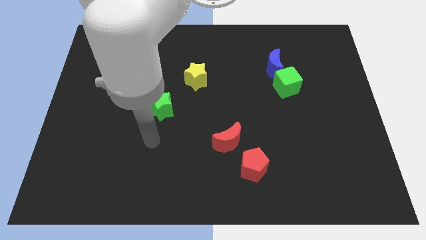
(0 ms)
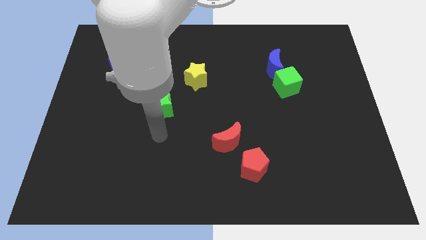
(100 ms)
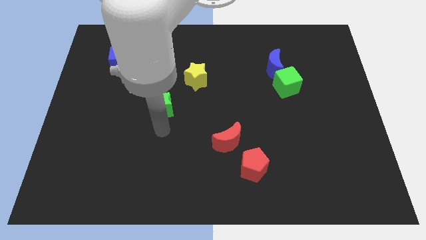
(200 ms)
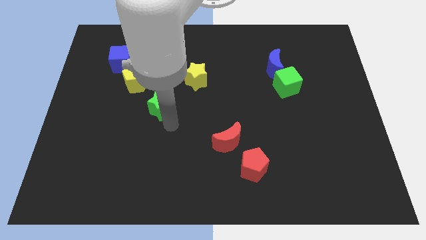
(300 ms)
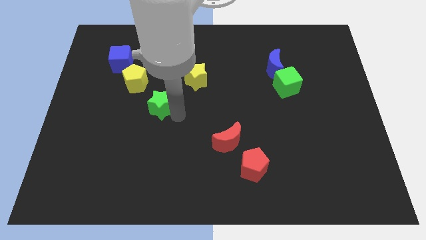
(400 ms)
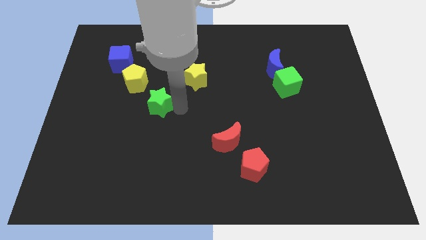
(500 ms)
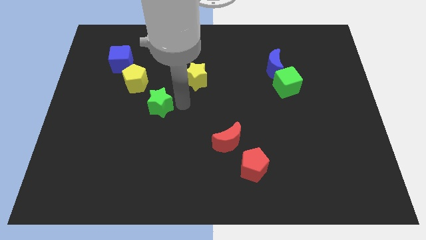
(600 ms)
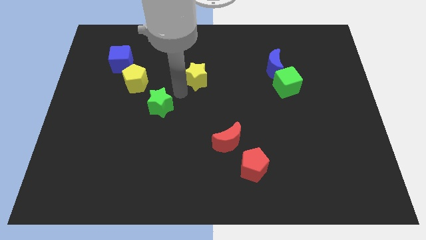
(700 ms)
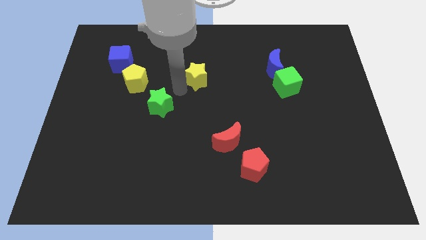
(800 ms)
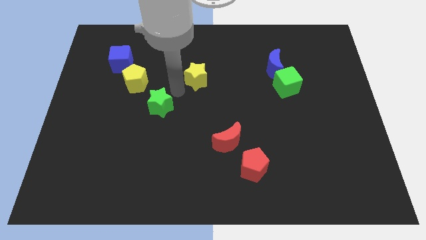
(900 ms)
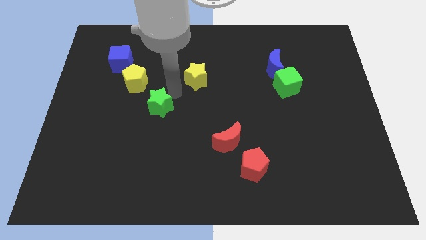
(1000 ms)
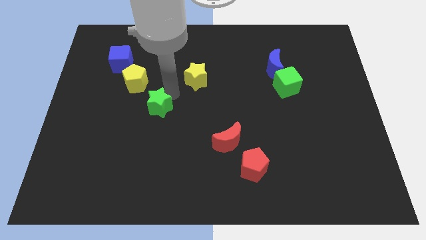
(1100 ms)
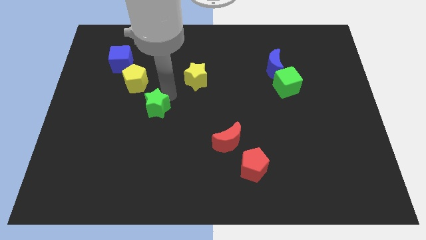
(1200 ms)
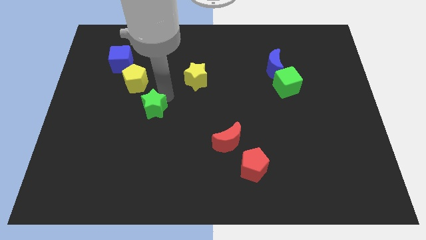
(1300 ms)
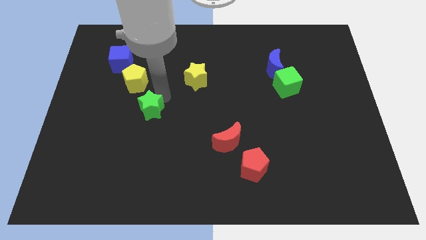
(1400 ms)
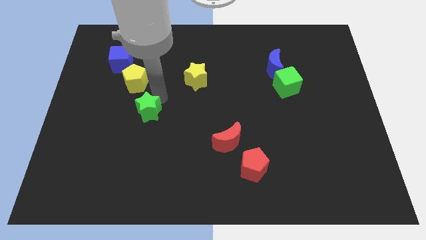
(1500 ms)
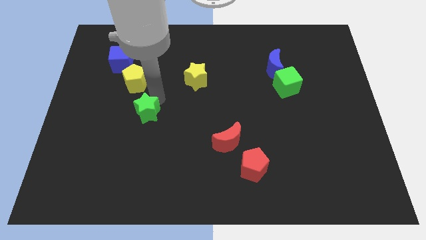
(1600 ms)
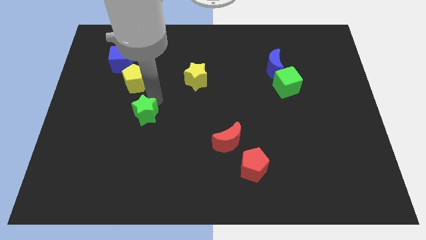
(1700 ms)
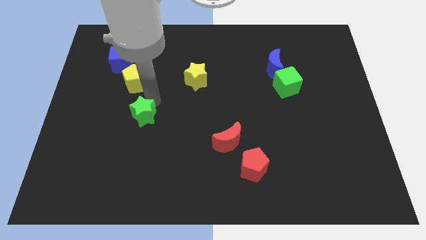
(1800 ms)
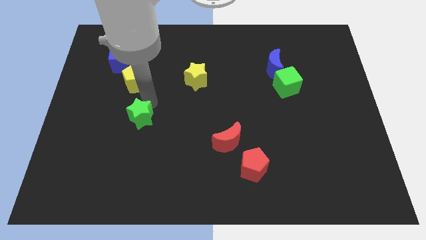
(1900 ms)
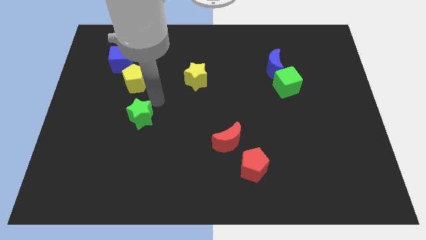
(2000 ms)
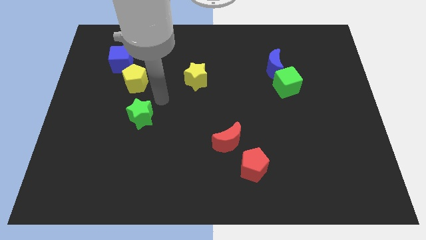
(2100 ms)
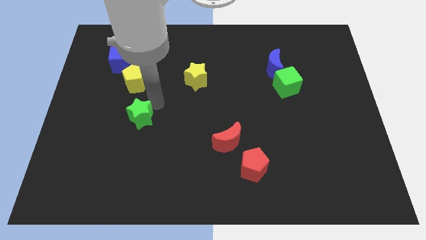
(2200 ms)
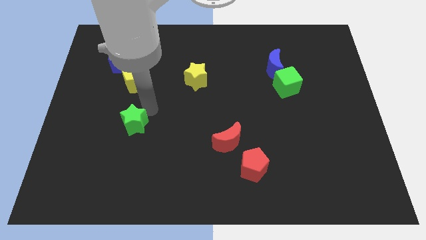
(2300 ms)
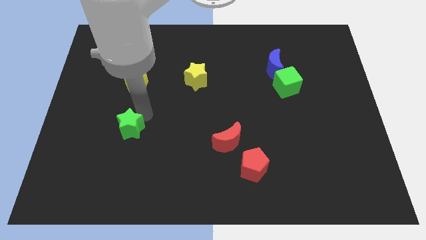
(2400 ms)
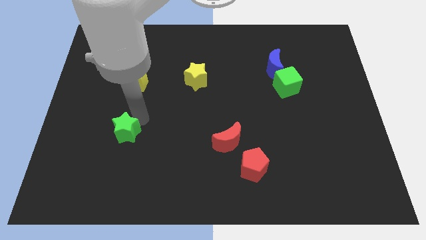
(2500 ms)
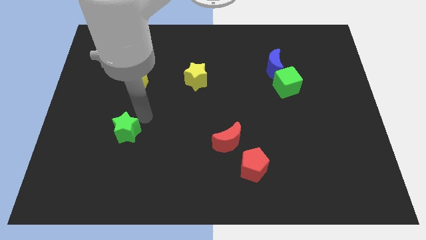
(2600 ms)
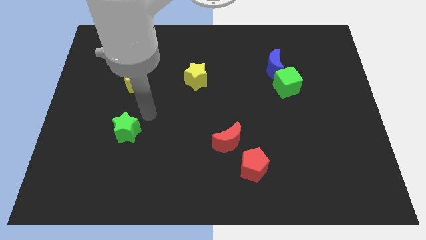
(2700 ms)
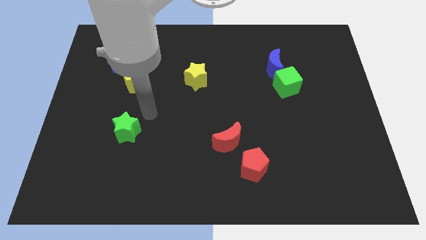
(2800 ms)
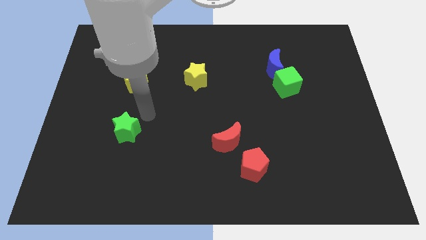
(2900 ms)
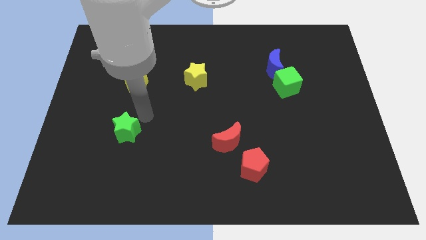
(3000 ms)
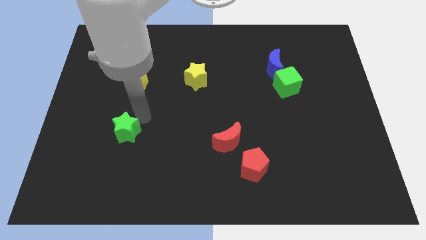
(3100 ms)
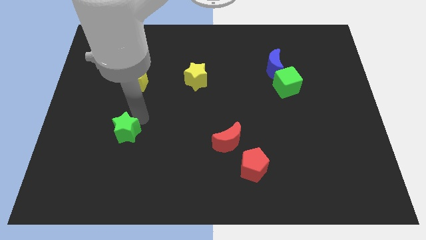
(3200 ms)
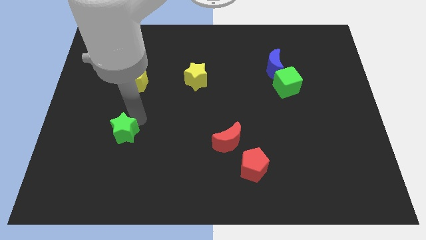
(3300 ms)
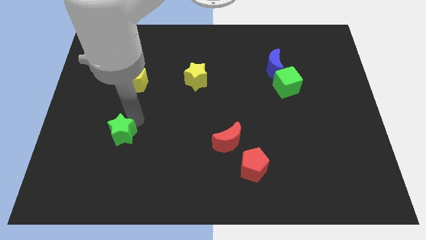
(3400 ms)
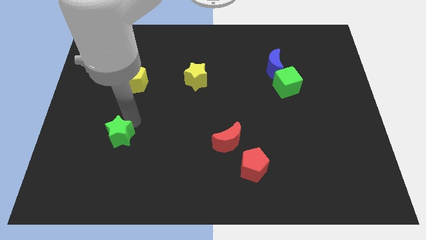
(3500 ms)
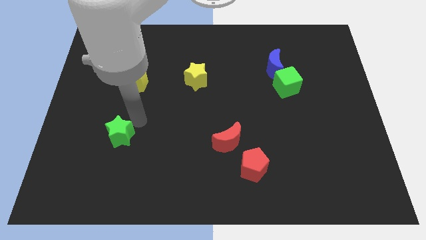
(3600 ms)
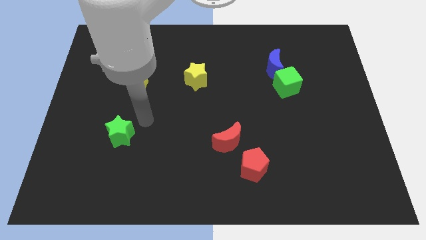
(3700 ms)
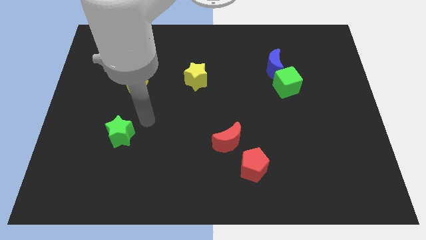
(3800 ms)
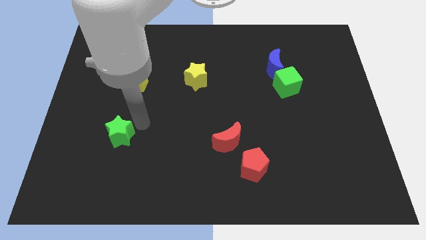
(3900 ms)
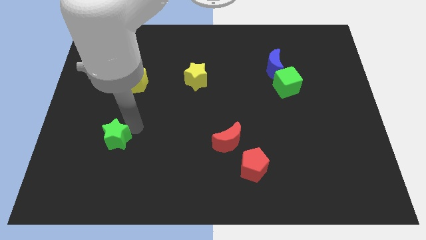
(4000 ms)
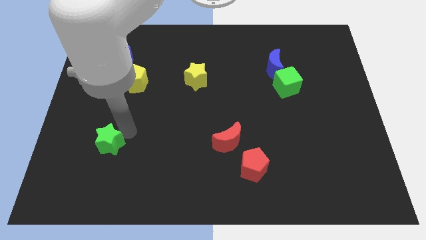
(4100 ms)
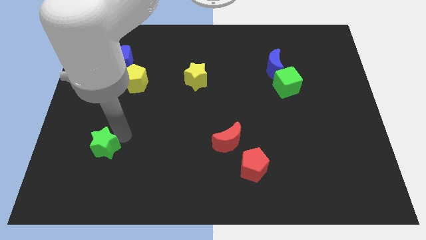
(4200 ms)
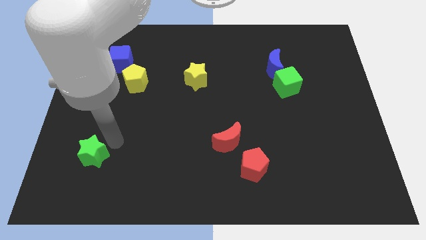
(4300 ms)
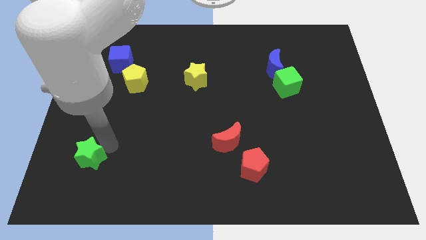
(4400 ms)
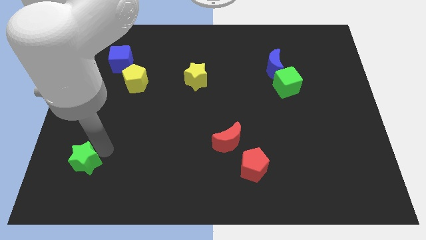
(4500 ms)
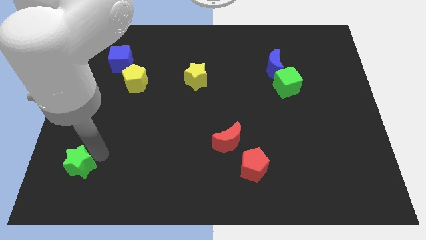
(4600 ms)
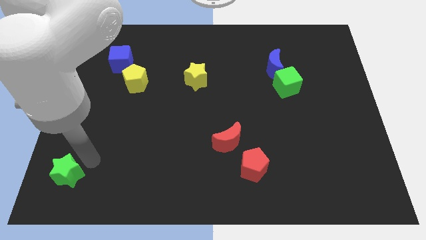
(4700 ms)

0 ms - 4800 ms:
put the green star to the lower left corner

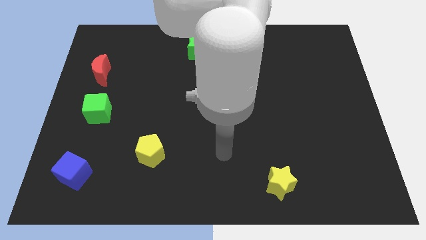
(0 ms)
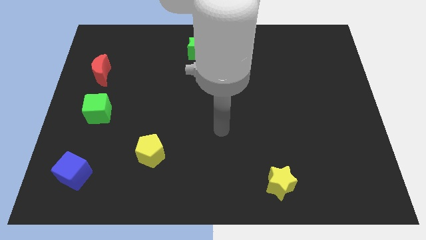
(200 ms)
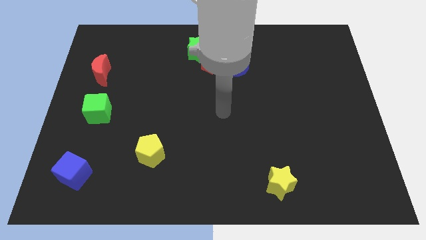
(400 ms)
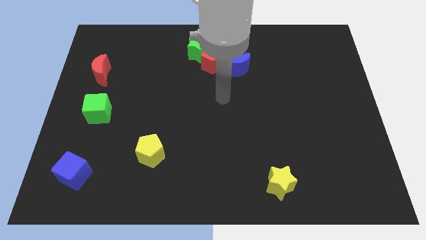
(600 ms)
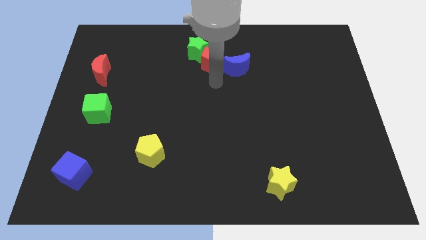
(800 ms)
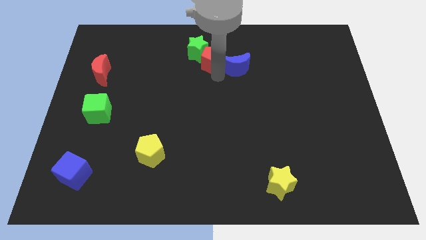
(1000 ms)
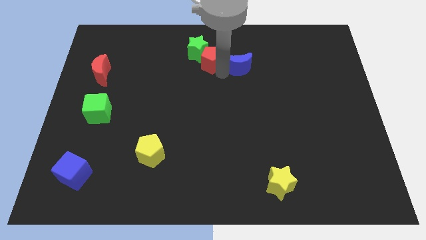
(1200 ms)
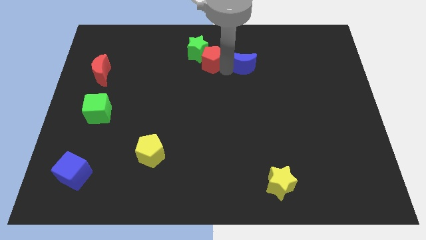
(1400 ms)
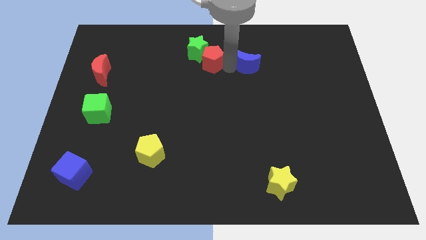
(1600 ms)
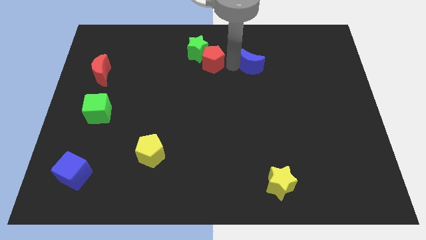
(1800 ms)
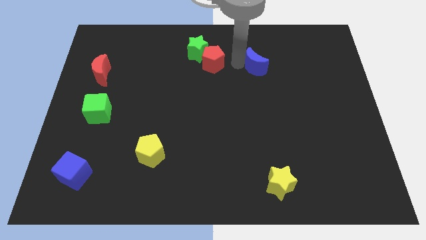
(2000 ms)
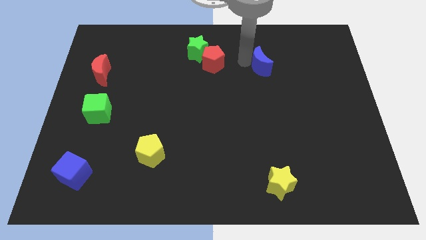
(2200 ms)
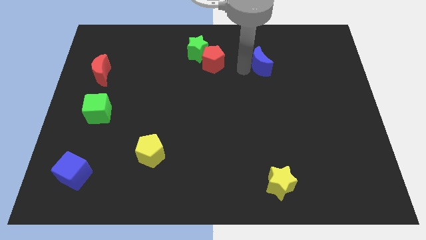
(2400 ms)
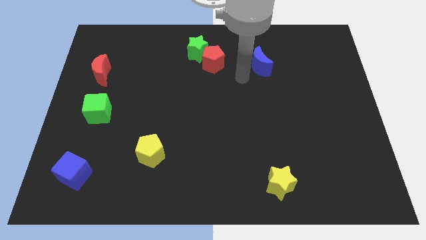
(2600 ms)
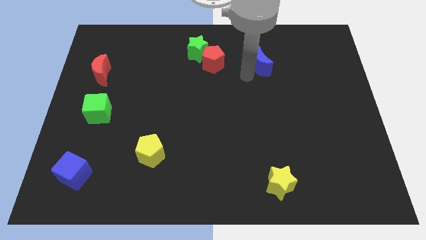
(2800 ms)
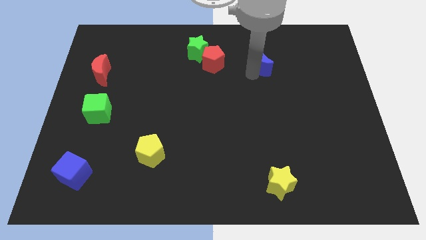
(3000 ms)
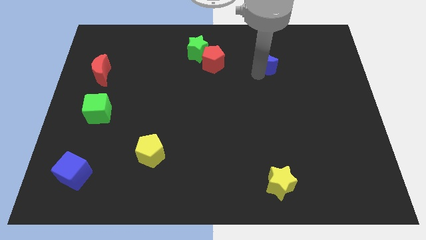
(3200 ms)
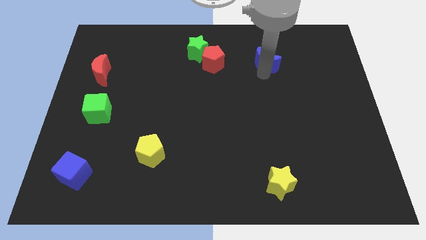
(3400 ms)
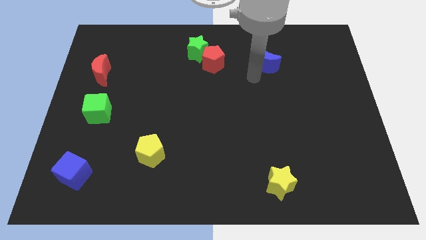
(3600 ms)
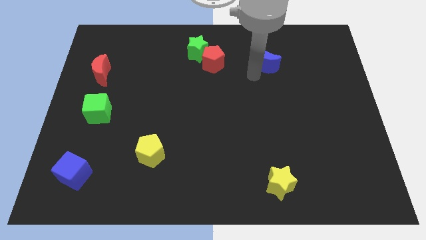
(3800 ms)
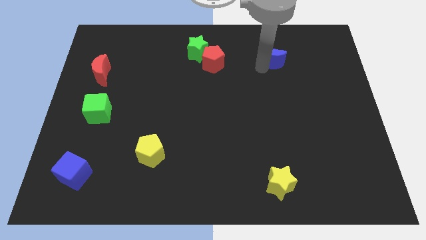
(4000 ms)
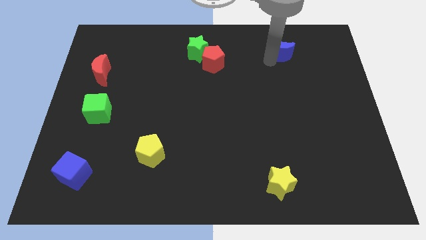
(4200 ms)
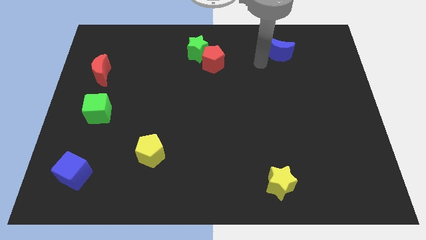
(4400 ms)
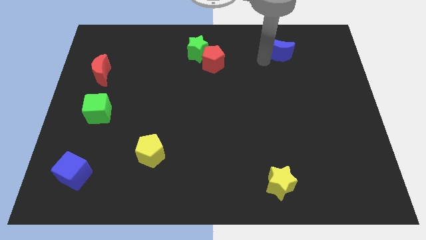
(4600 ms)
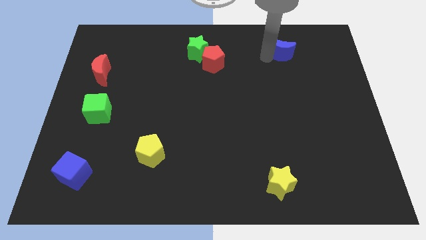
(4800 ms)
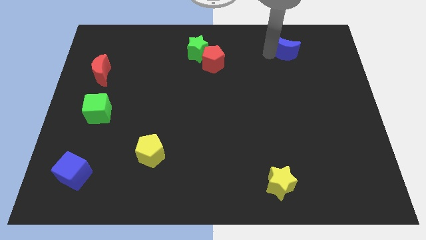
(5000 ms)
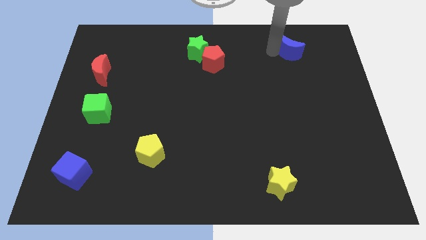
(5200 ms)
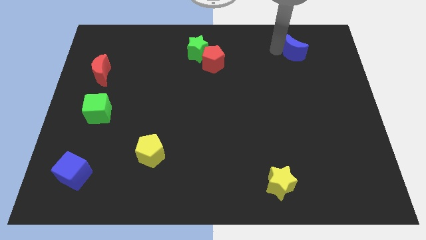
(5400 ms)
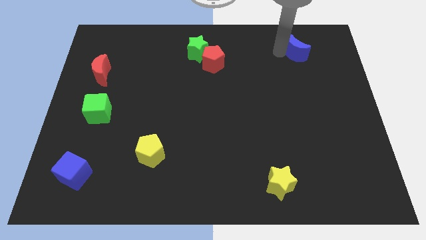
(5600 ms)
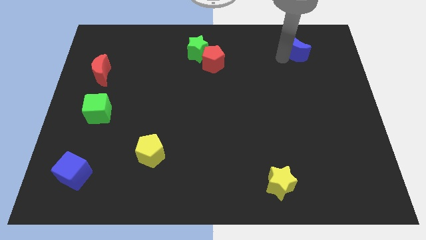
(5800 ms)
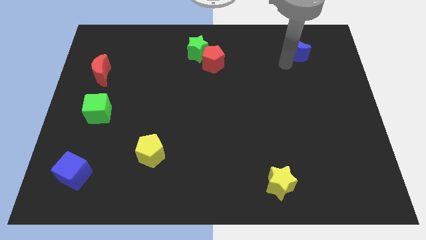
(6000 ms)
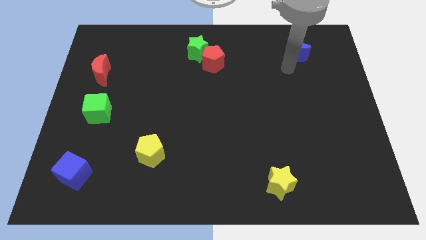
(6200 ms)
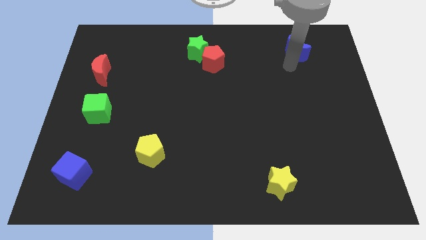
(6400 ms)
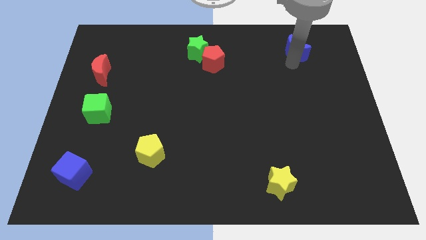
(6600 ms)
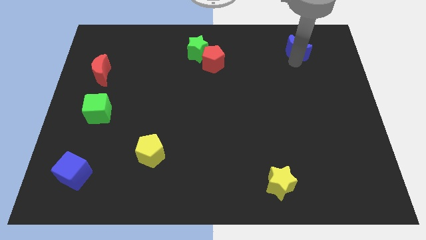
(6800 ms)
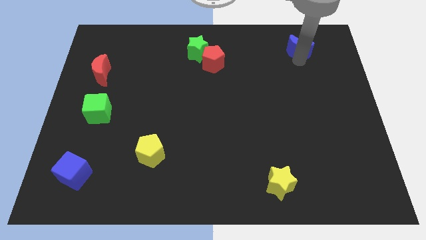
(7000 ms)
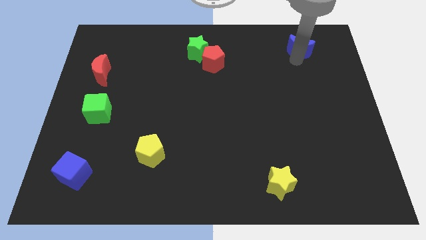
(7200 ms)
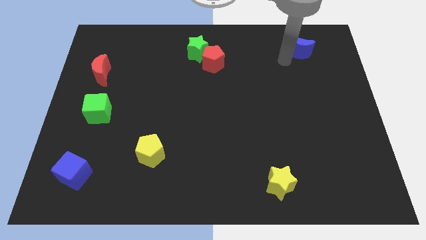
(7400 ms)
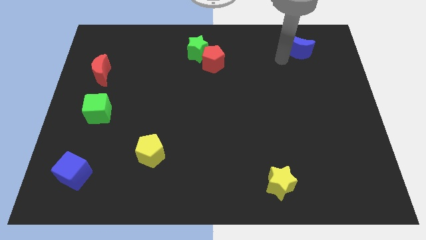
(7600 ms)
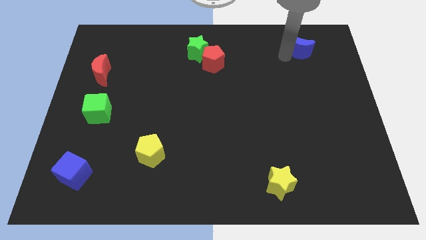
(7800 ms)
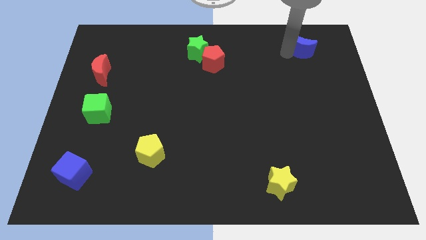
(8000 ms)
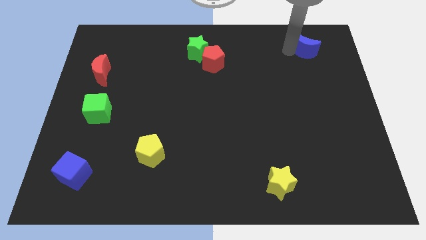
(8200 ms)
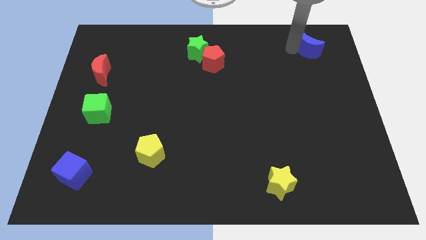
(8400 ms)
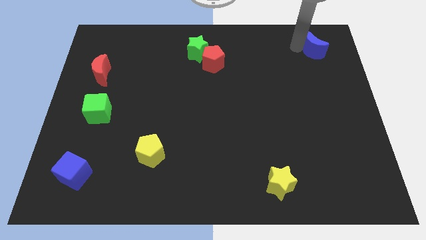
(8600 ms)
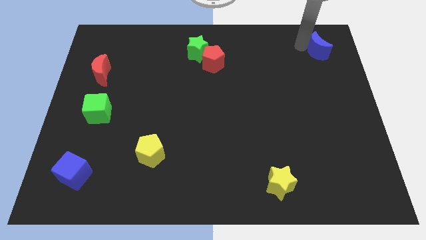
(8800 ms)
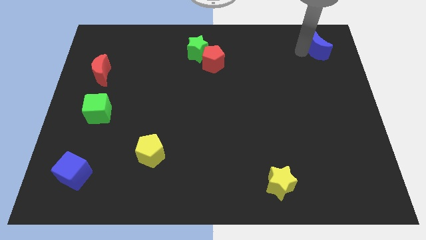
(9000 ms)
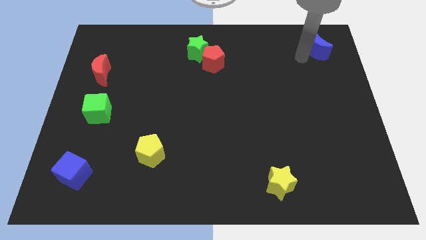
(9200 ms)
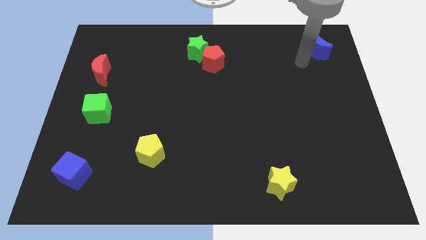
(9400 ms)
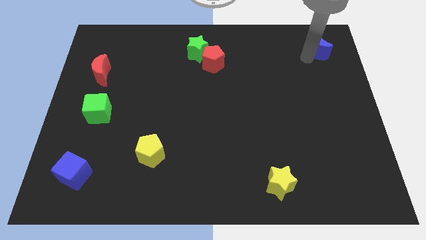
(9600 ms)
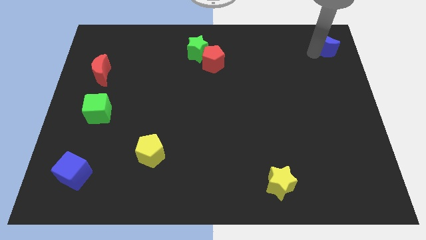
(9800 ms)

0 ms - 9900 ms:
slide the blue moon to the top right
